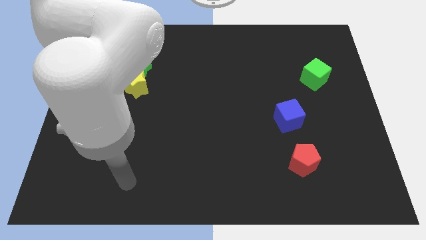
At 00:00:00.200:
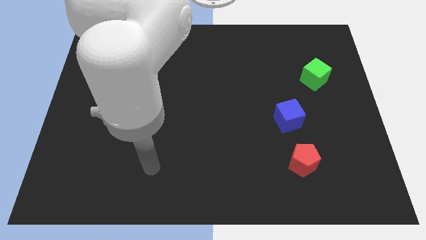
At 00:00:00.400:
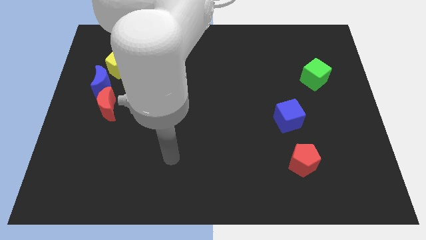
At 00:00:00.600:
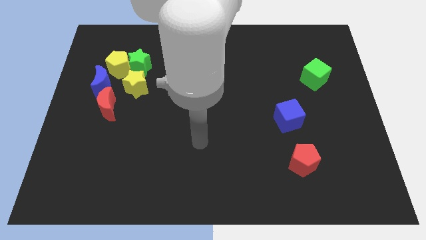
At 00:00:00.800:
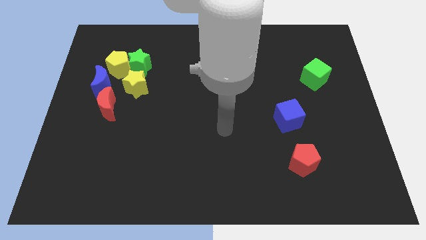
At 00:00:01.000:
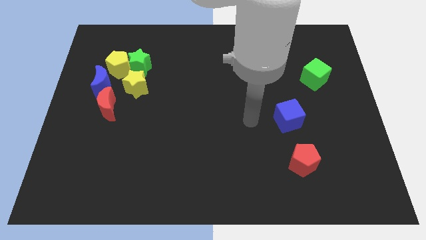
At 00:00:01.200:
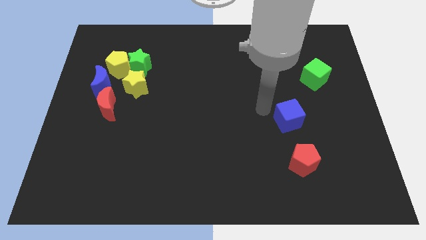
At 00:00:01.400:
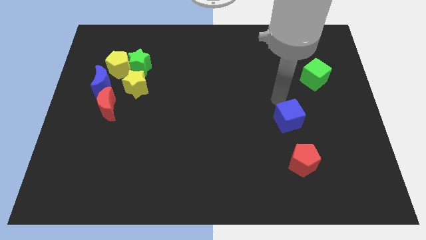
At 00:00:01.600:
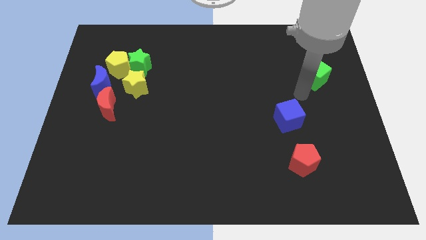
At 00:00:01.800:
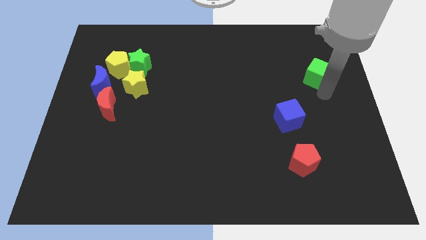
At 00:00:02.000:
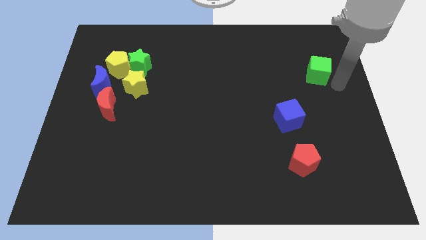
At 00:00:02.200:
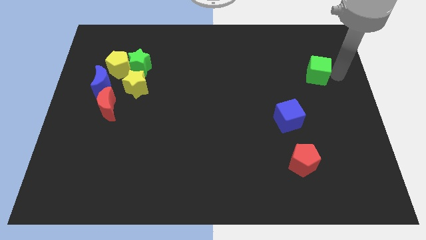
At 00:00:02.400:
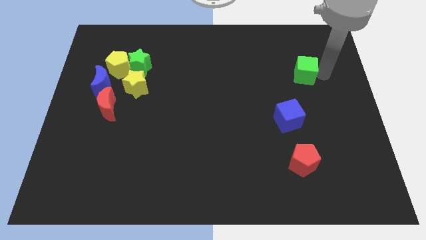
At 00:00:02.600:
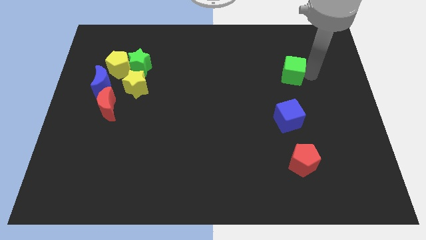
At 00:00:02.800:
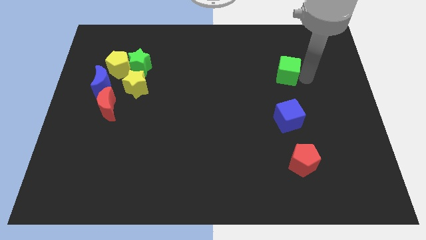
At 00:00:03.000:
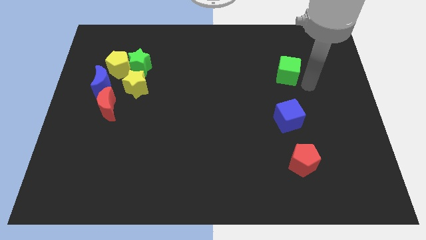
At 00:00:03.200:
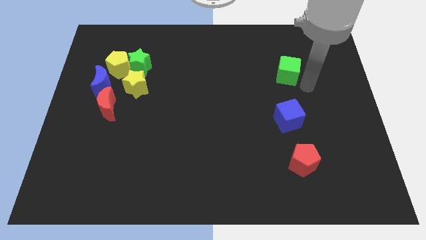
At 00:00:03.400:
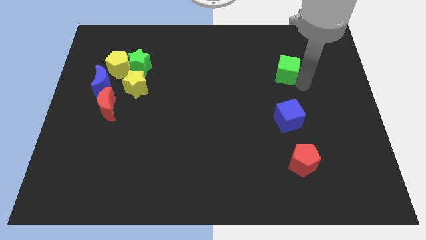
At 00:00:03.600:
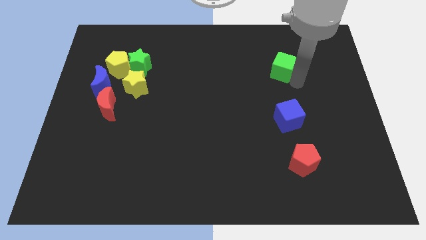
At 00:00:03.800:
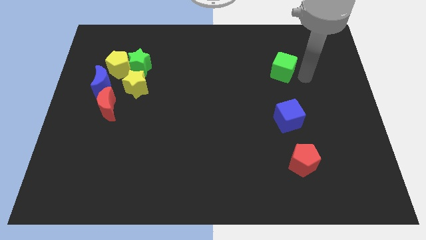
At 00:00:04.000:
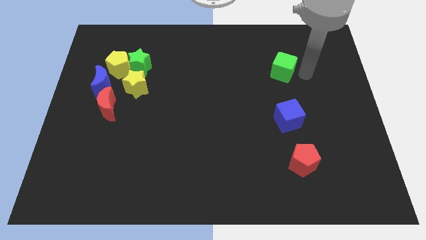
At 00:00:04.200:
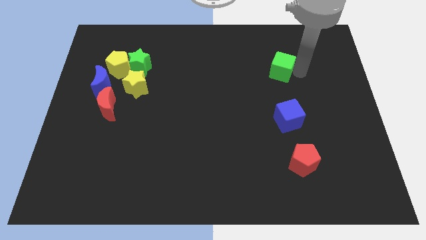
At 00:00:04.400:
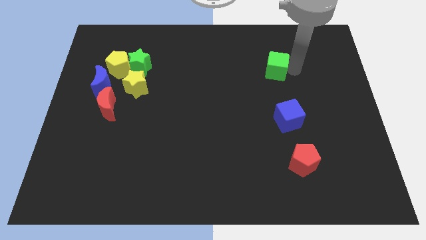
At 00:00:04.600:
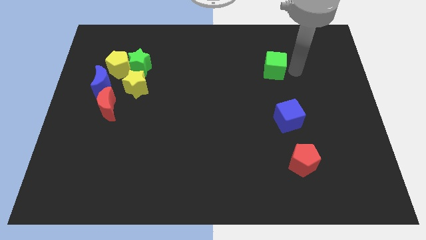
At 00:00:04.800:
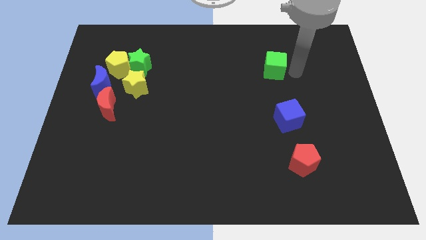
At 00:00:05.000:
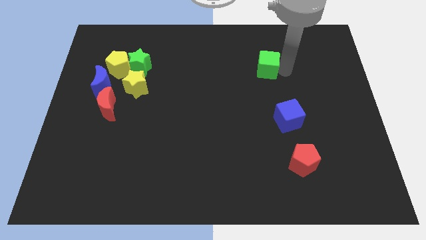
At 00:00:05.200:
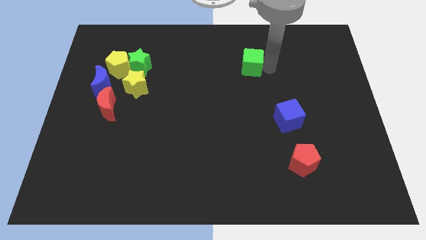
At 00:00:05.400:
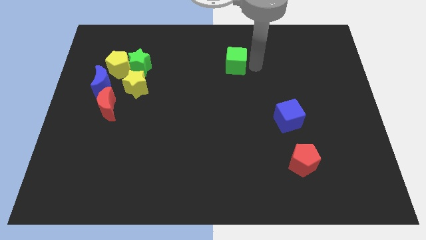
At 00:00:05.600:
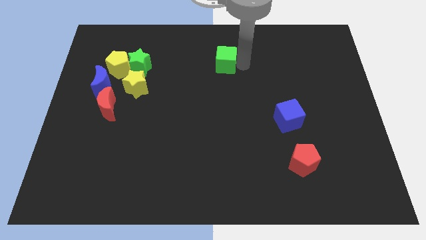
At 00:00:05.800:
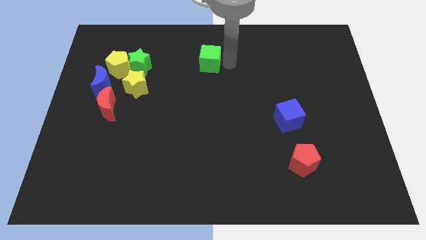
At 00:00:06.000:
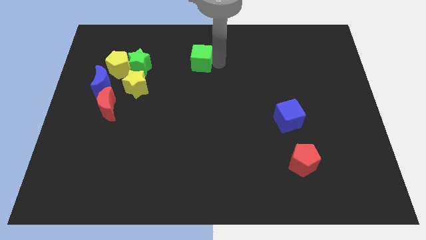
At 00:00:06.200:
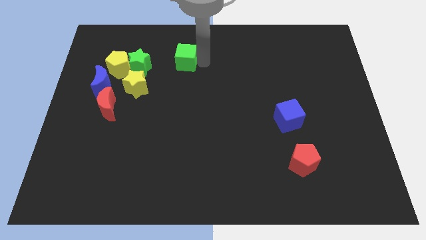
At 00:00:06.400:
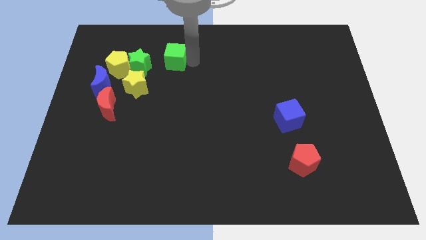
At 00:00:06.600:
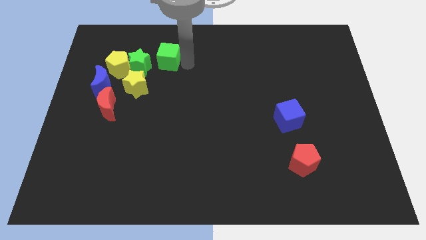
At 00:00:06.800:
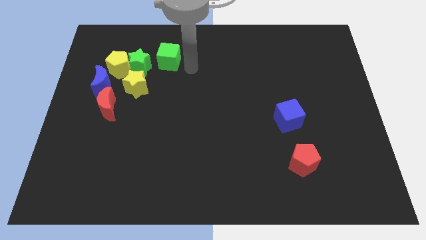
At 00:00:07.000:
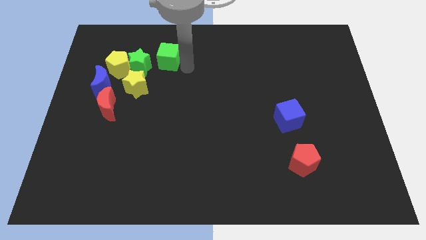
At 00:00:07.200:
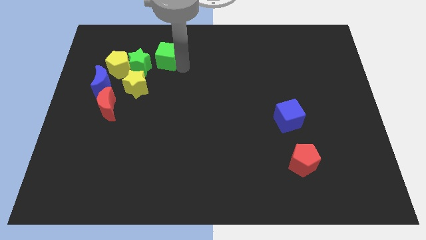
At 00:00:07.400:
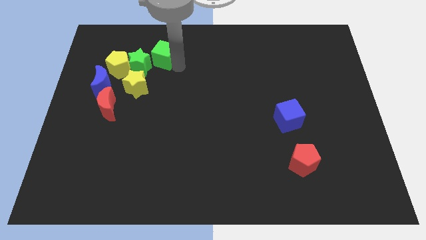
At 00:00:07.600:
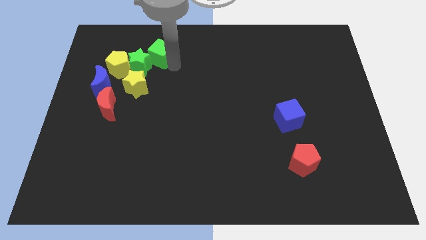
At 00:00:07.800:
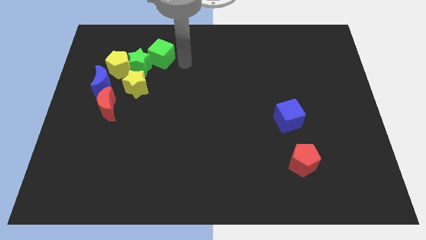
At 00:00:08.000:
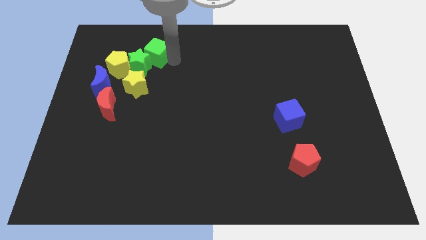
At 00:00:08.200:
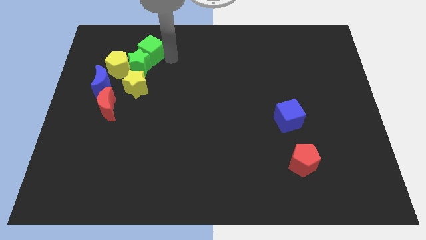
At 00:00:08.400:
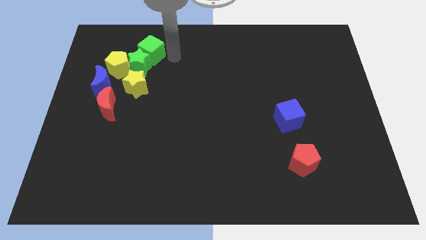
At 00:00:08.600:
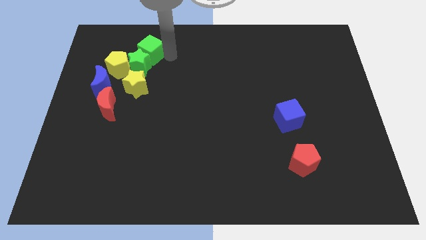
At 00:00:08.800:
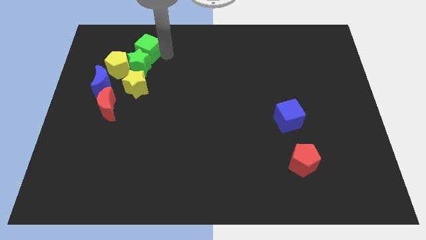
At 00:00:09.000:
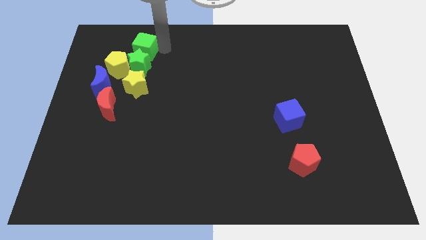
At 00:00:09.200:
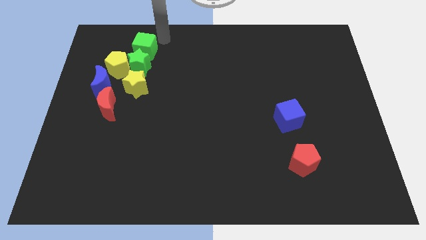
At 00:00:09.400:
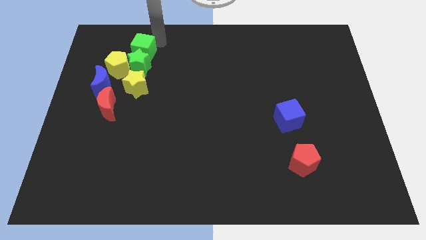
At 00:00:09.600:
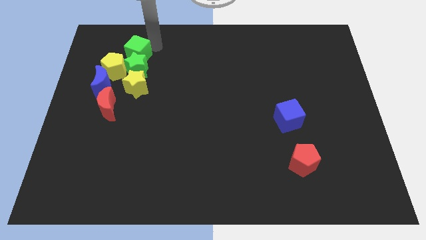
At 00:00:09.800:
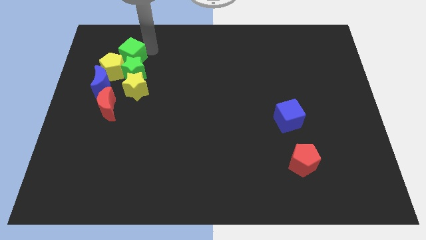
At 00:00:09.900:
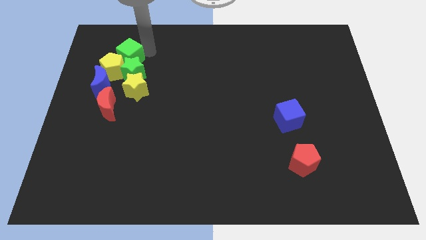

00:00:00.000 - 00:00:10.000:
slide the green cube to the yellow pentagon

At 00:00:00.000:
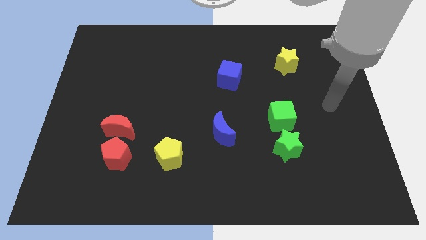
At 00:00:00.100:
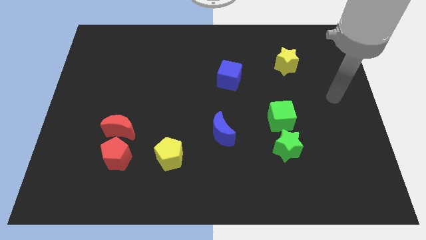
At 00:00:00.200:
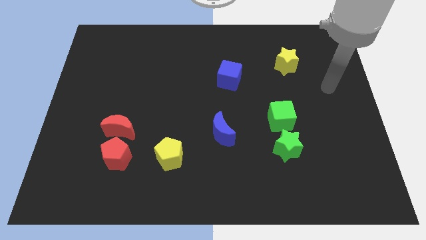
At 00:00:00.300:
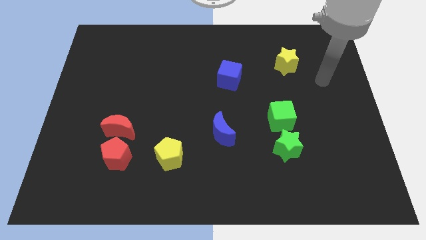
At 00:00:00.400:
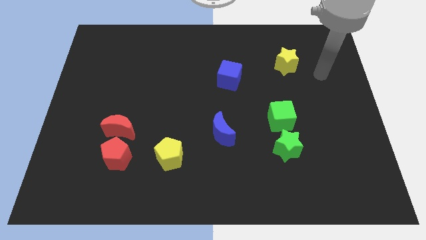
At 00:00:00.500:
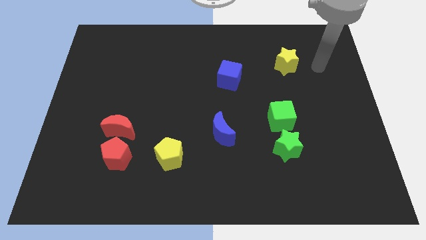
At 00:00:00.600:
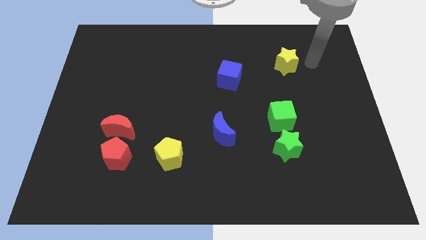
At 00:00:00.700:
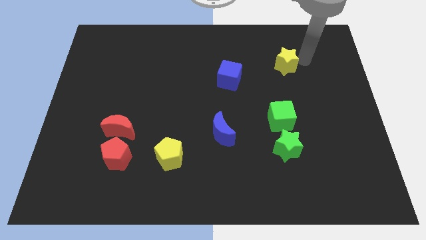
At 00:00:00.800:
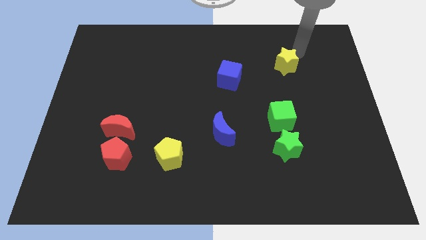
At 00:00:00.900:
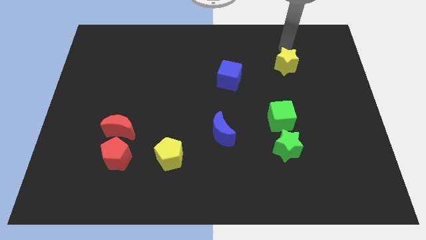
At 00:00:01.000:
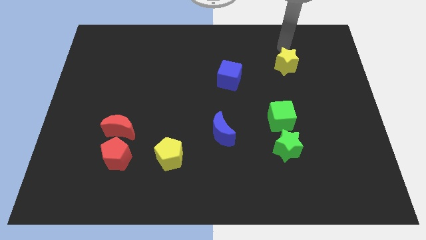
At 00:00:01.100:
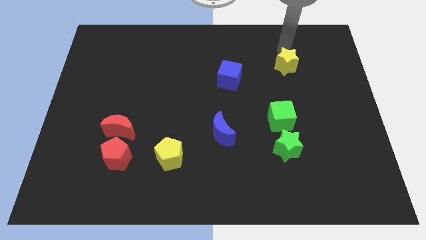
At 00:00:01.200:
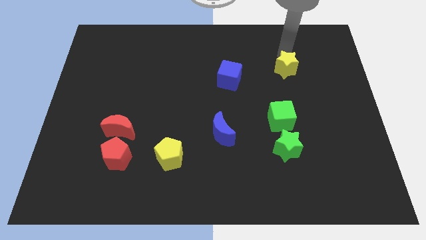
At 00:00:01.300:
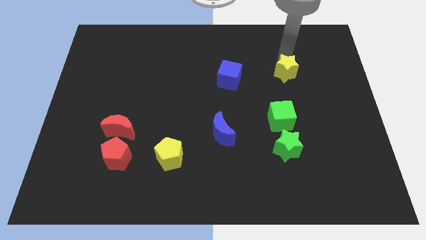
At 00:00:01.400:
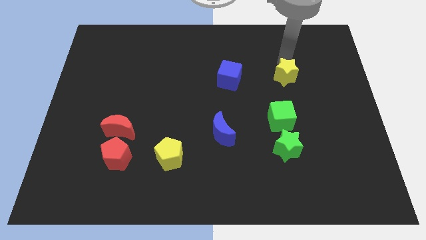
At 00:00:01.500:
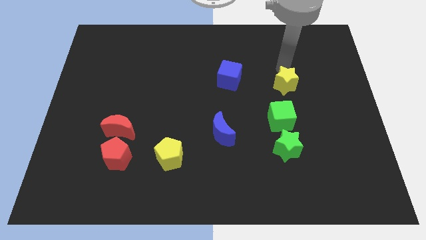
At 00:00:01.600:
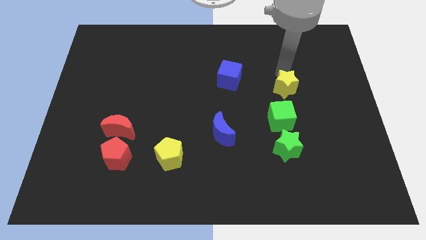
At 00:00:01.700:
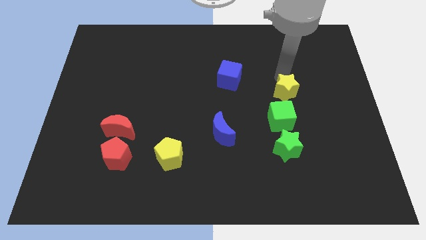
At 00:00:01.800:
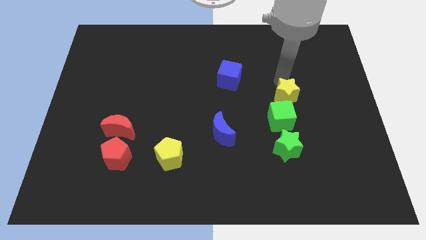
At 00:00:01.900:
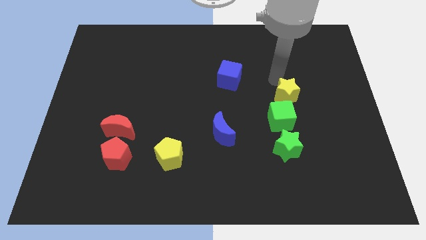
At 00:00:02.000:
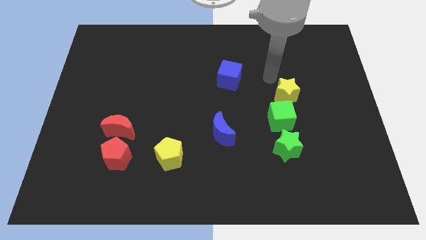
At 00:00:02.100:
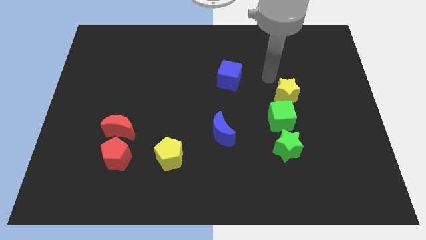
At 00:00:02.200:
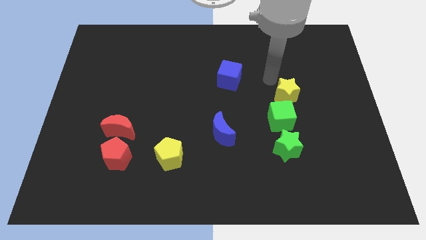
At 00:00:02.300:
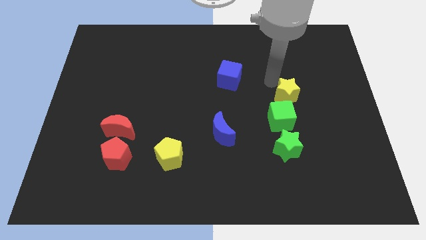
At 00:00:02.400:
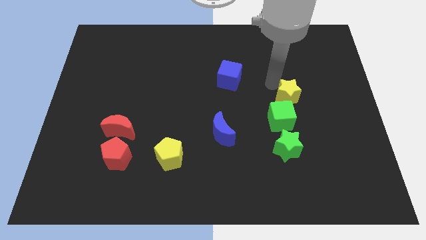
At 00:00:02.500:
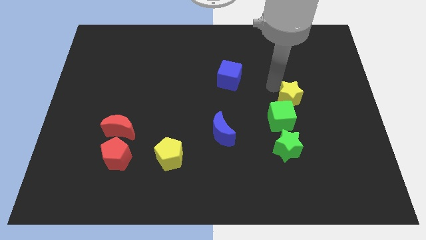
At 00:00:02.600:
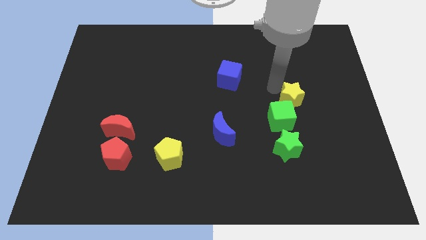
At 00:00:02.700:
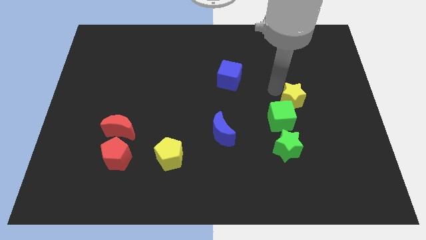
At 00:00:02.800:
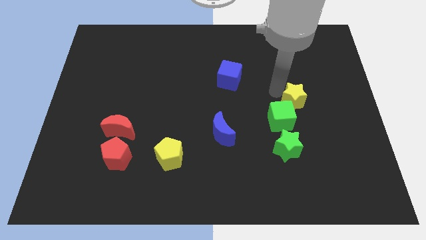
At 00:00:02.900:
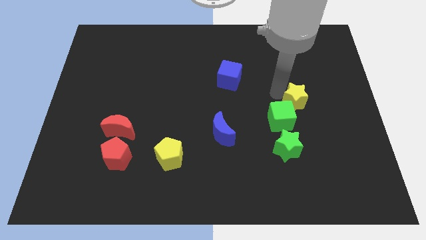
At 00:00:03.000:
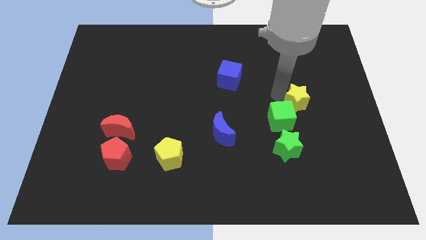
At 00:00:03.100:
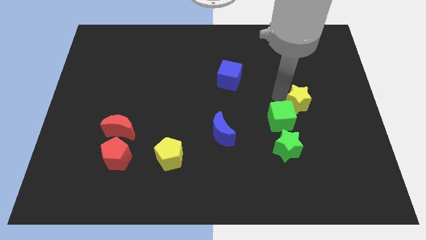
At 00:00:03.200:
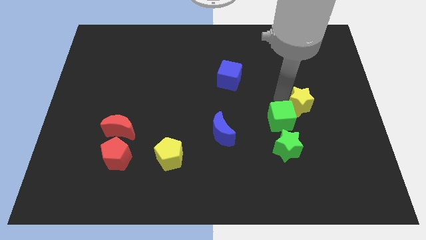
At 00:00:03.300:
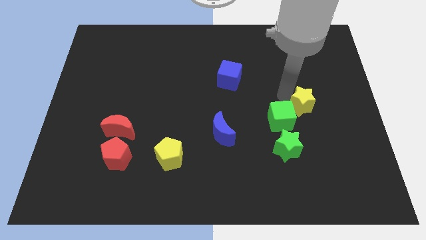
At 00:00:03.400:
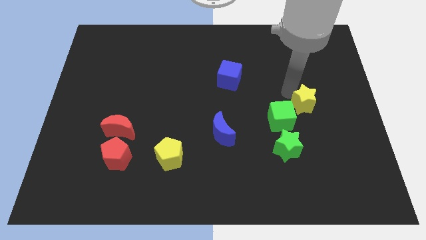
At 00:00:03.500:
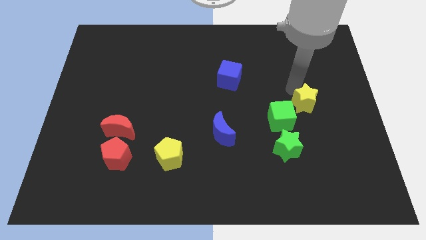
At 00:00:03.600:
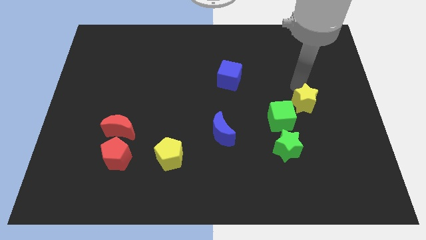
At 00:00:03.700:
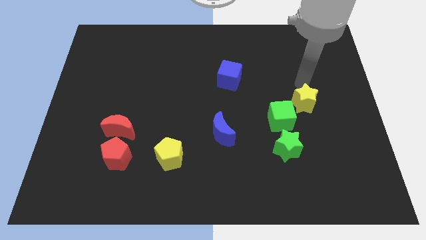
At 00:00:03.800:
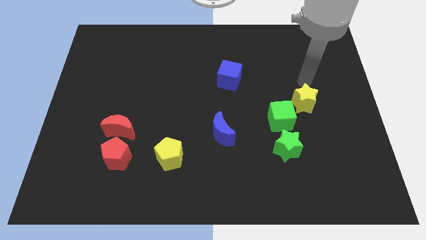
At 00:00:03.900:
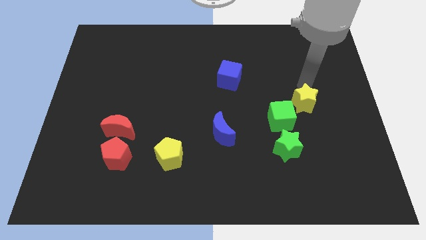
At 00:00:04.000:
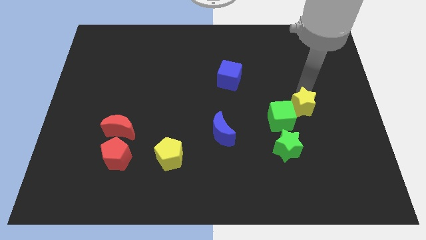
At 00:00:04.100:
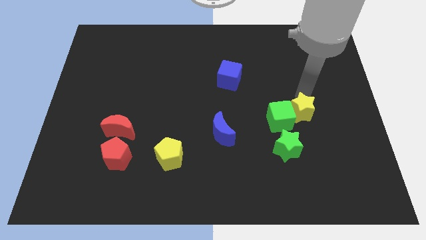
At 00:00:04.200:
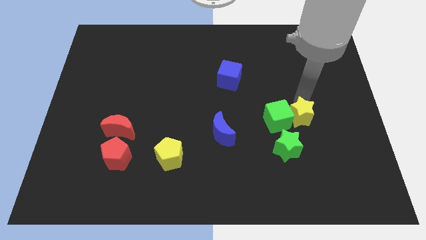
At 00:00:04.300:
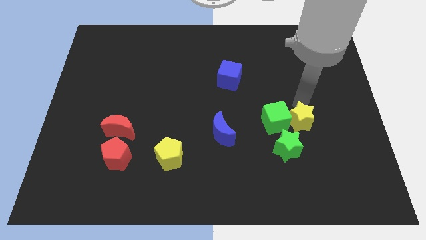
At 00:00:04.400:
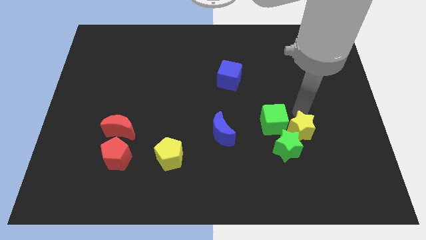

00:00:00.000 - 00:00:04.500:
move the yellow star to the green star
